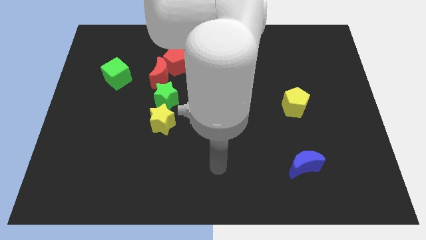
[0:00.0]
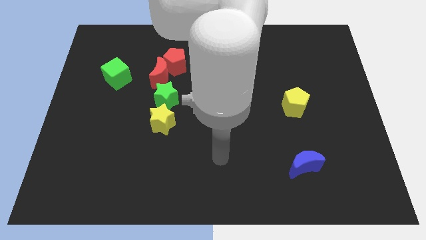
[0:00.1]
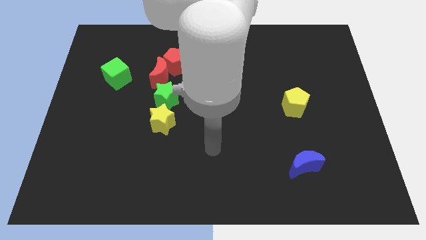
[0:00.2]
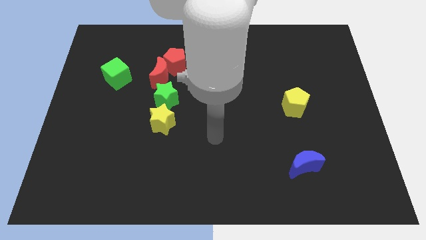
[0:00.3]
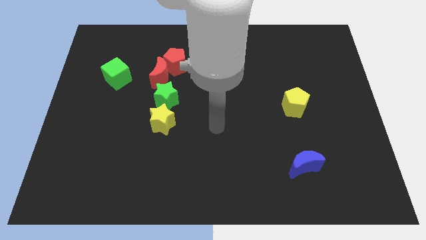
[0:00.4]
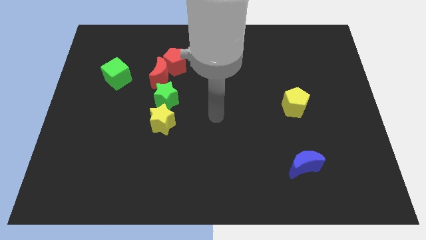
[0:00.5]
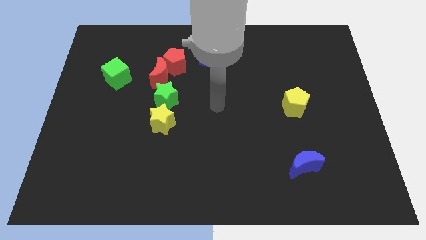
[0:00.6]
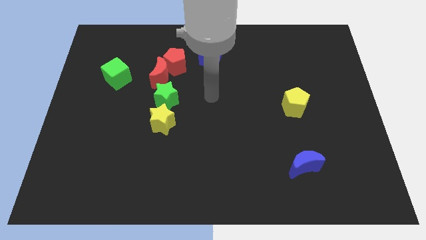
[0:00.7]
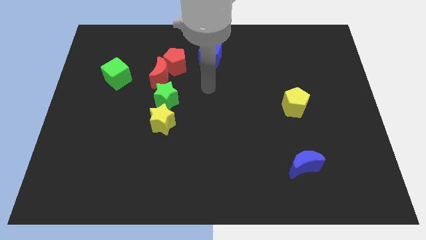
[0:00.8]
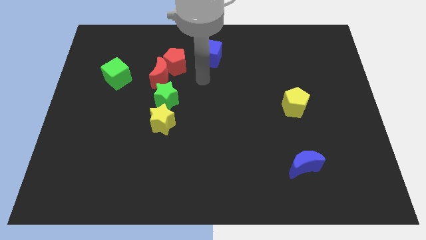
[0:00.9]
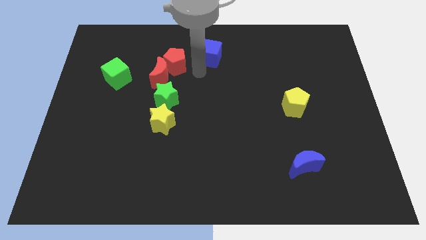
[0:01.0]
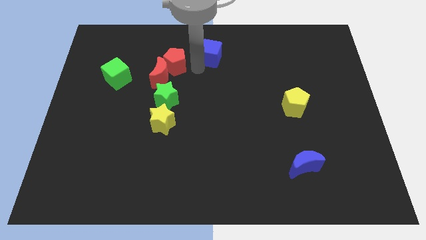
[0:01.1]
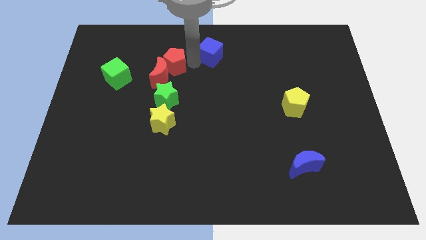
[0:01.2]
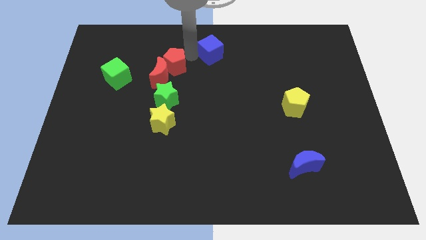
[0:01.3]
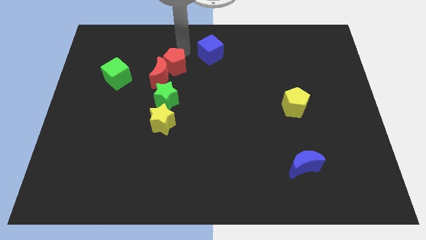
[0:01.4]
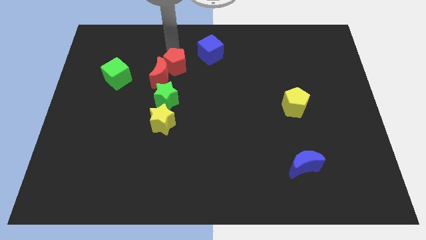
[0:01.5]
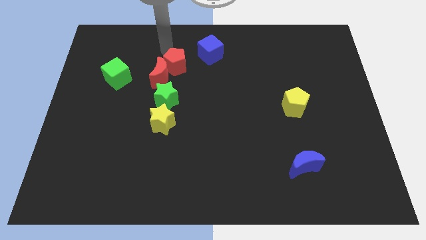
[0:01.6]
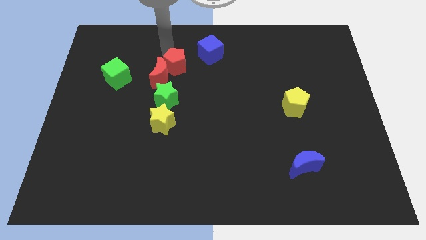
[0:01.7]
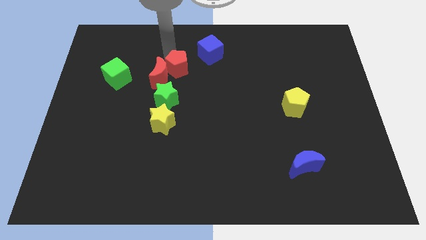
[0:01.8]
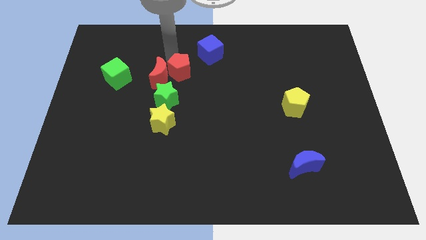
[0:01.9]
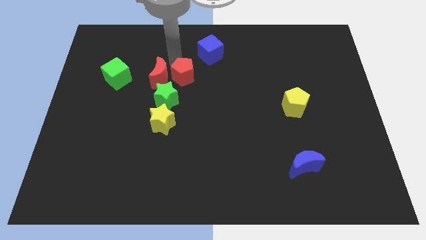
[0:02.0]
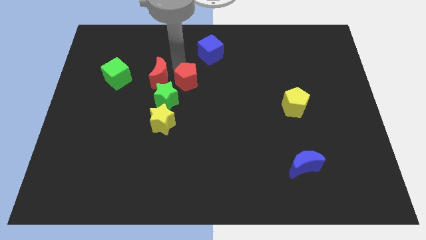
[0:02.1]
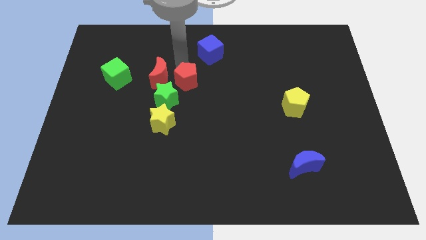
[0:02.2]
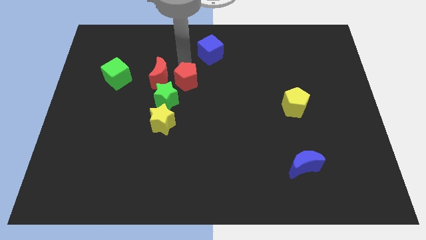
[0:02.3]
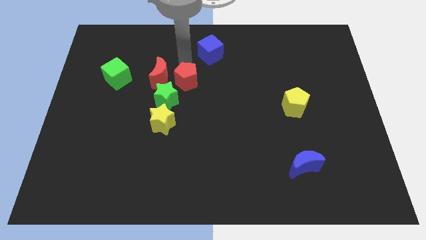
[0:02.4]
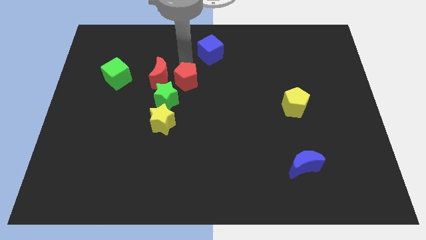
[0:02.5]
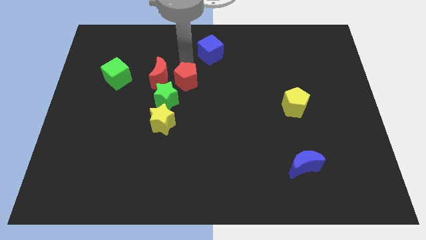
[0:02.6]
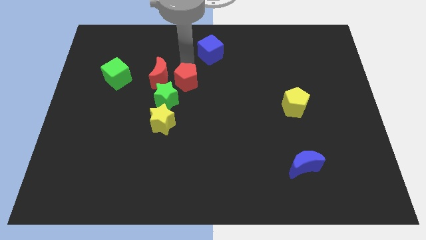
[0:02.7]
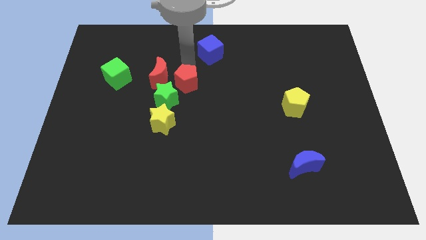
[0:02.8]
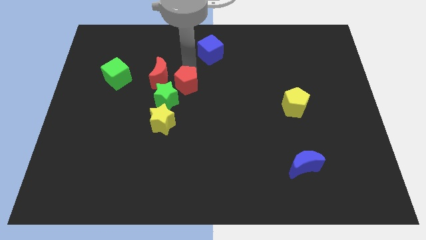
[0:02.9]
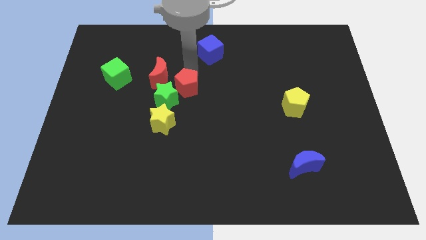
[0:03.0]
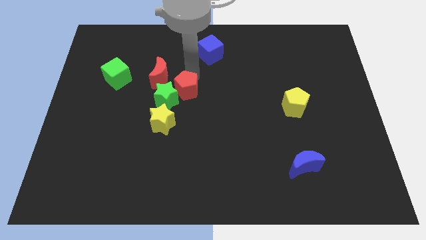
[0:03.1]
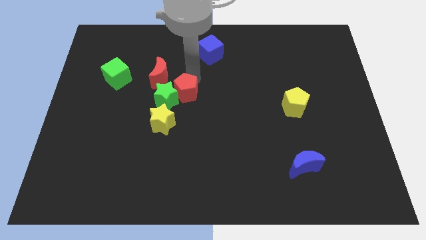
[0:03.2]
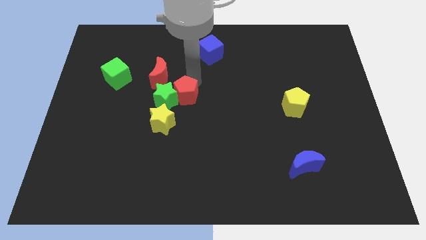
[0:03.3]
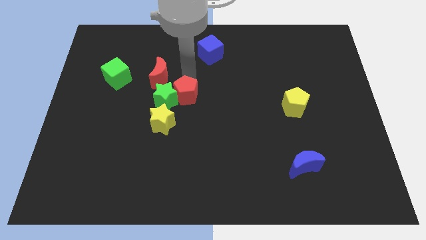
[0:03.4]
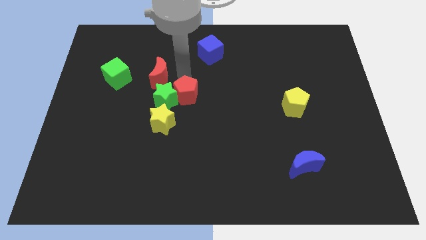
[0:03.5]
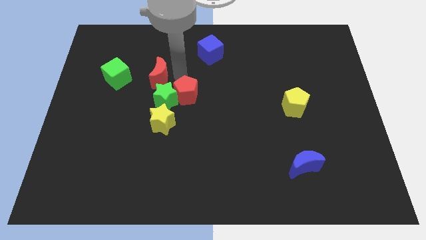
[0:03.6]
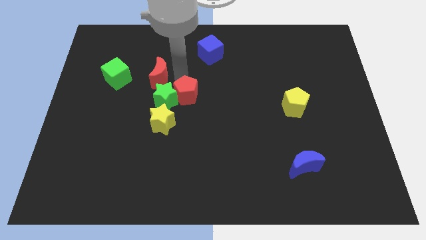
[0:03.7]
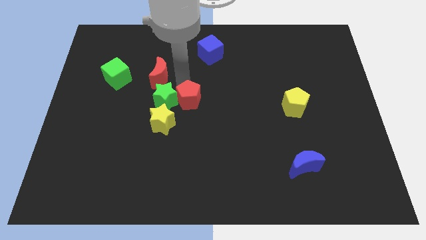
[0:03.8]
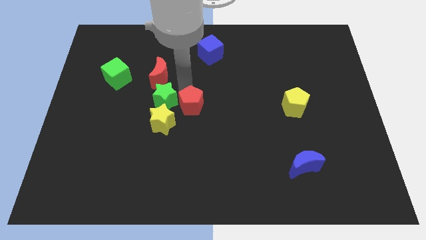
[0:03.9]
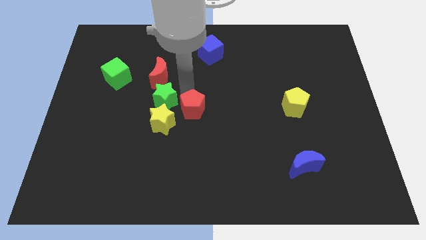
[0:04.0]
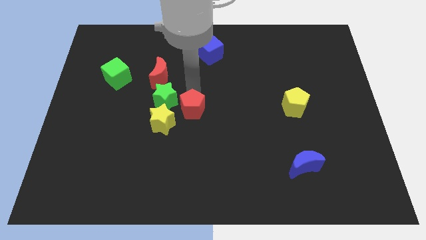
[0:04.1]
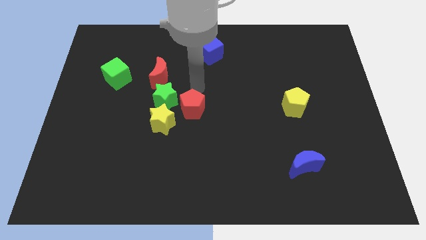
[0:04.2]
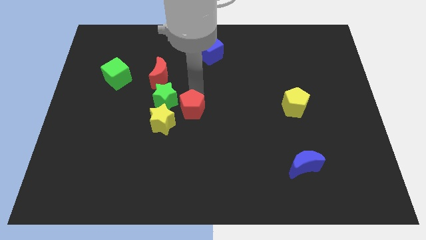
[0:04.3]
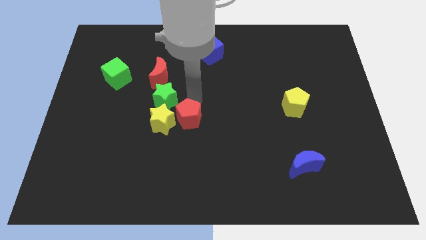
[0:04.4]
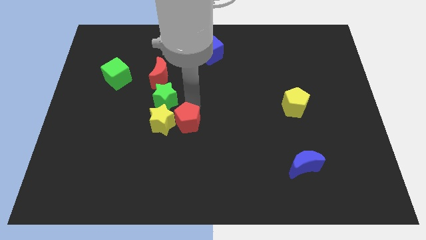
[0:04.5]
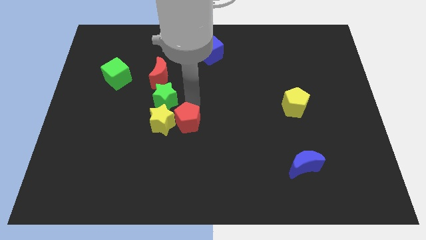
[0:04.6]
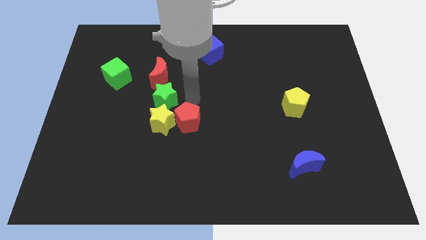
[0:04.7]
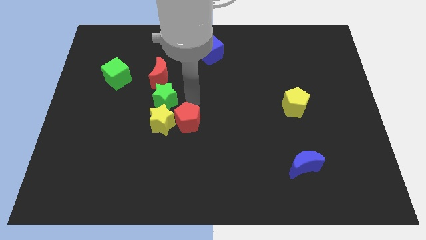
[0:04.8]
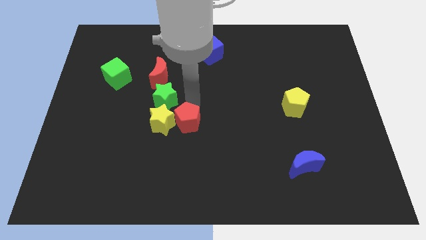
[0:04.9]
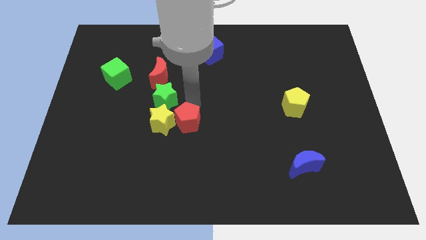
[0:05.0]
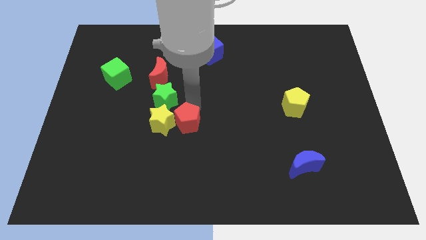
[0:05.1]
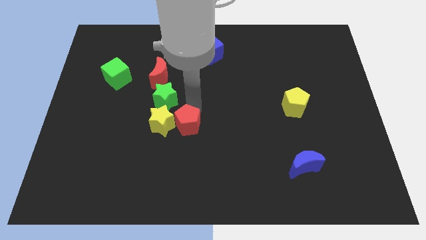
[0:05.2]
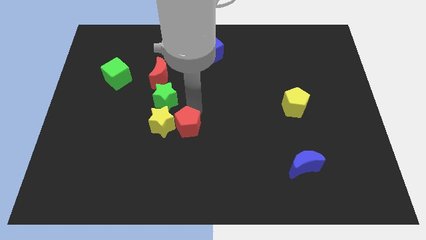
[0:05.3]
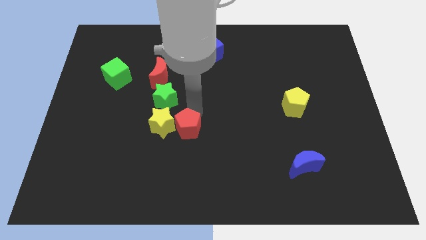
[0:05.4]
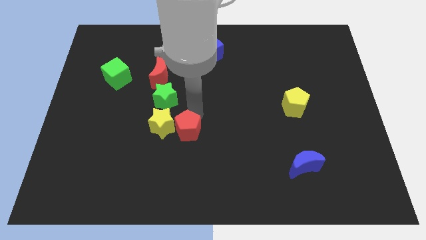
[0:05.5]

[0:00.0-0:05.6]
push the red pentagon down

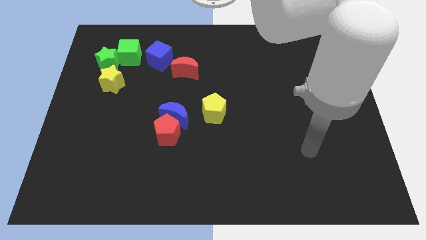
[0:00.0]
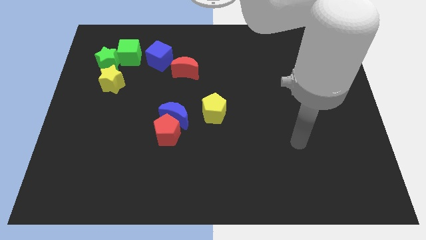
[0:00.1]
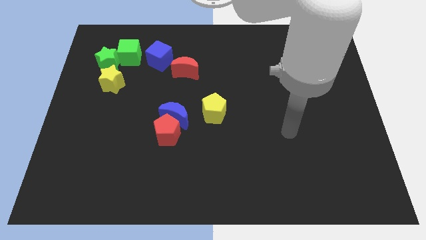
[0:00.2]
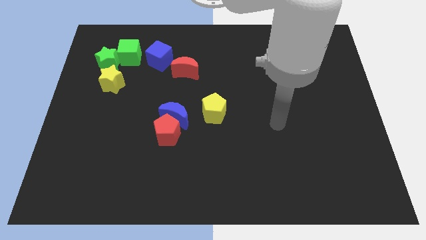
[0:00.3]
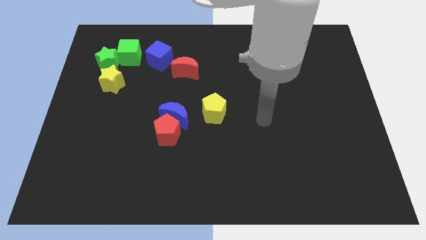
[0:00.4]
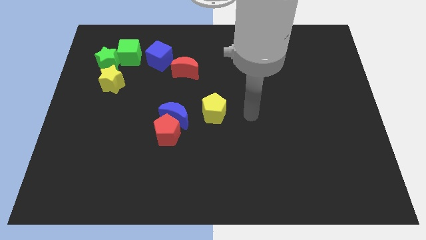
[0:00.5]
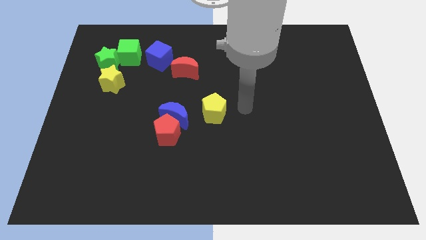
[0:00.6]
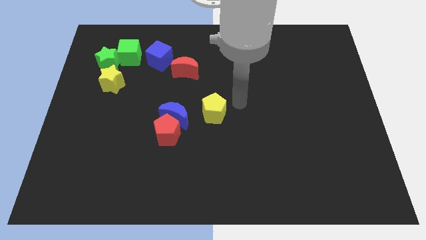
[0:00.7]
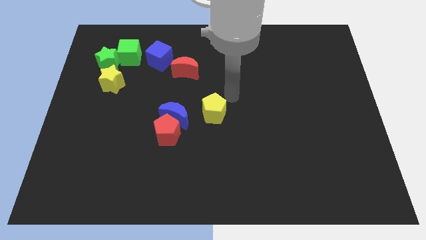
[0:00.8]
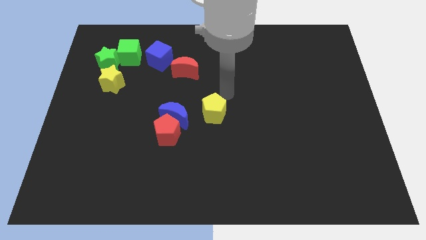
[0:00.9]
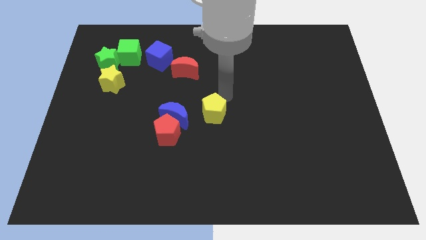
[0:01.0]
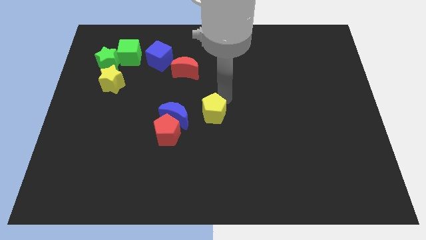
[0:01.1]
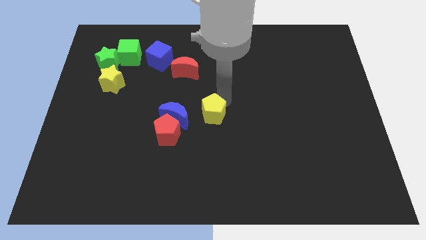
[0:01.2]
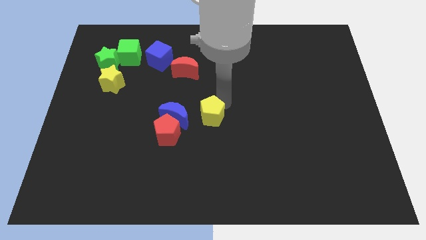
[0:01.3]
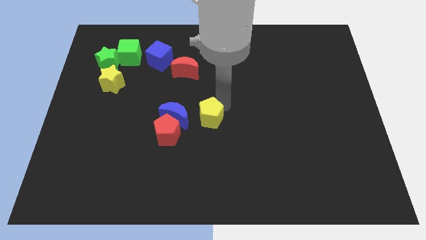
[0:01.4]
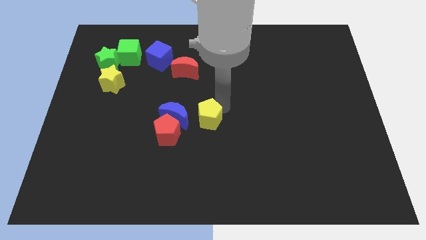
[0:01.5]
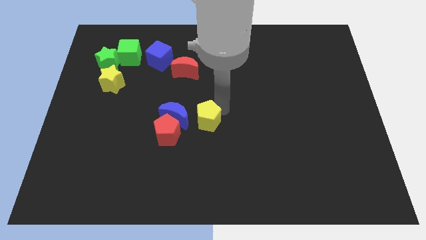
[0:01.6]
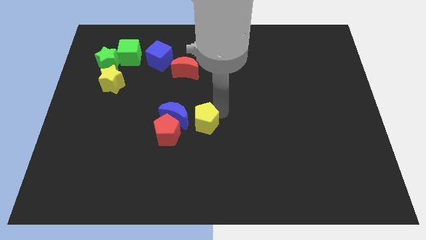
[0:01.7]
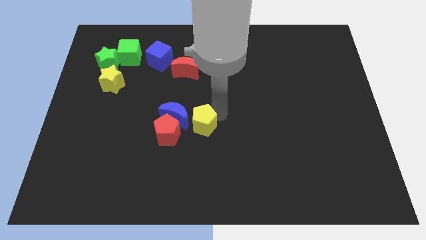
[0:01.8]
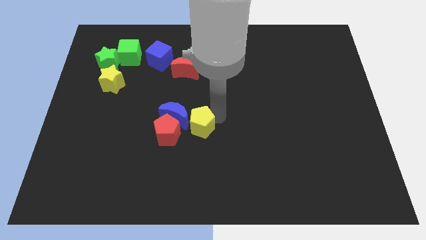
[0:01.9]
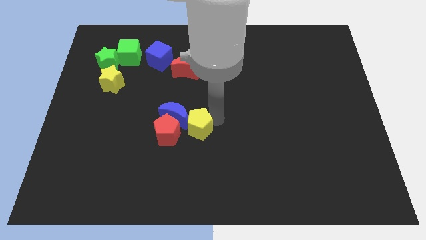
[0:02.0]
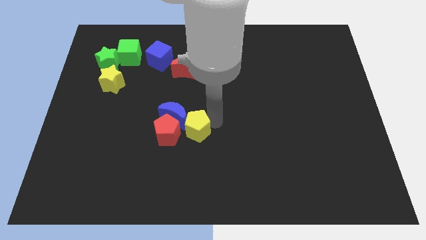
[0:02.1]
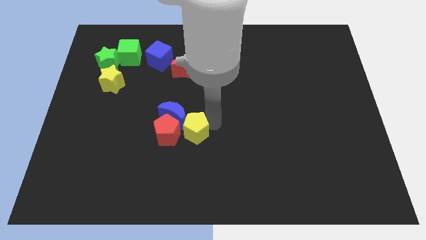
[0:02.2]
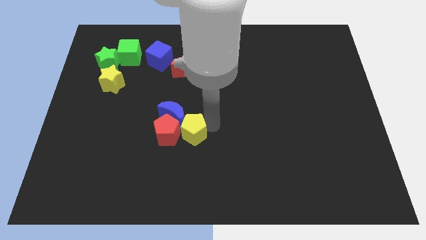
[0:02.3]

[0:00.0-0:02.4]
move the yellow pentagon a little bit downwards and to the left

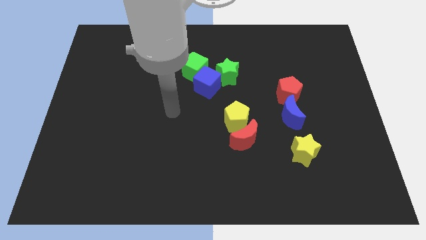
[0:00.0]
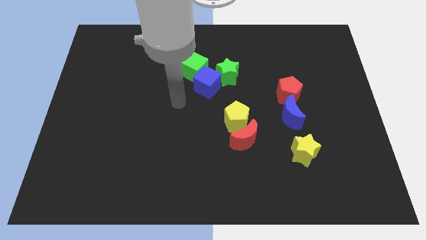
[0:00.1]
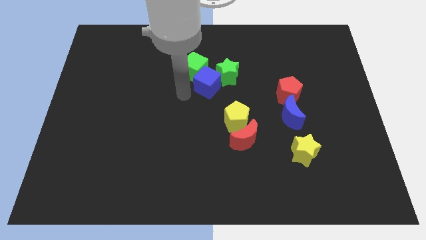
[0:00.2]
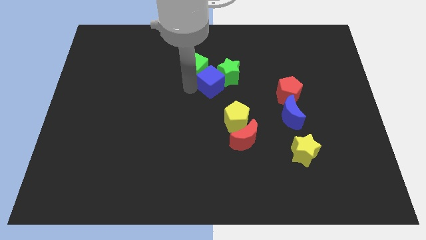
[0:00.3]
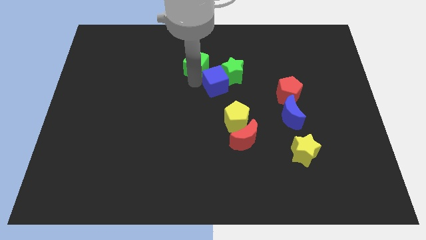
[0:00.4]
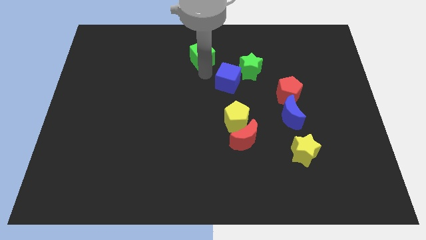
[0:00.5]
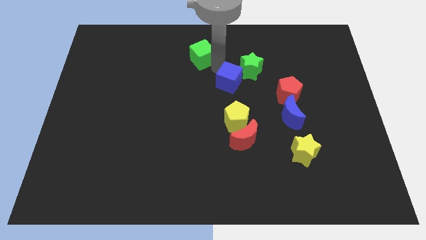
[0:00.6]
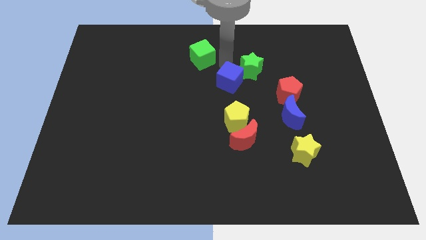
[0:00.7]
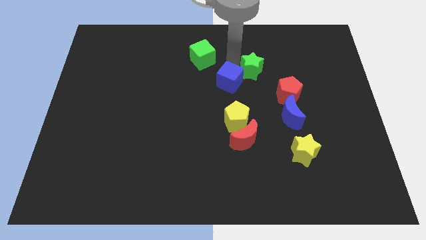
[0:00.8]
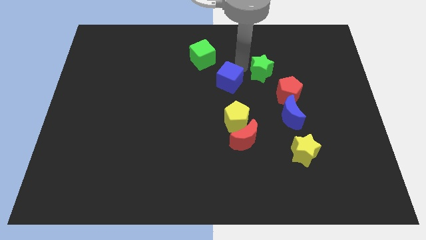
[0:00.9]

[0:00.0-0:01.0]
push the green star a bit right
